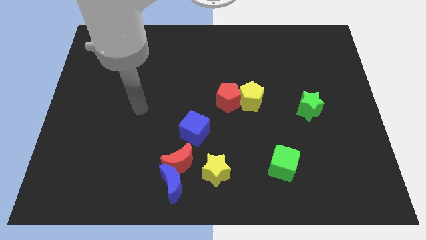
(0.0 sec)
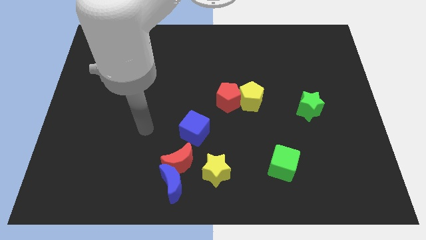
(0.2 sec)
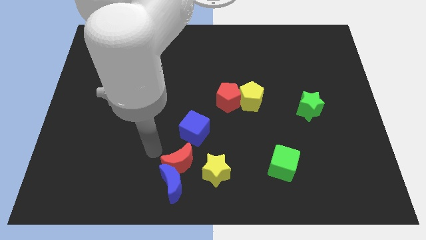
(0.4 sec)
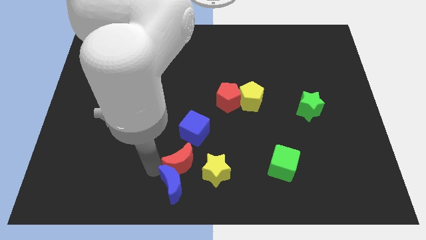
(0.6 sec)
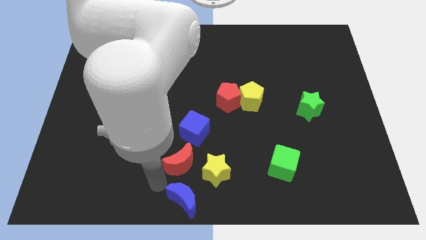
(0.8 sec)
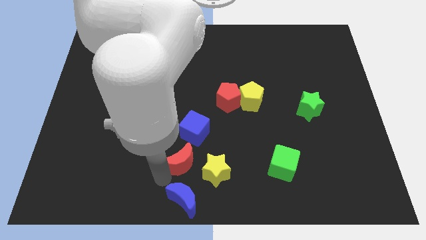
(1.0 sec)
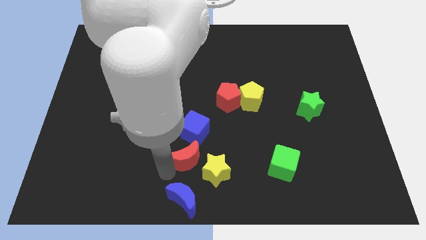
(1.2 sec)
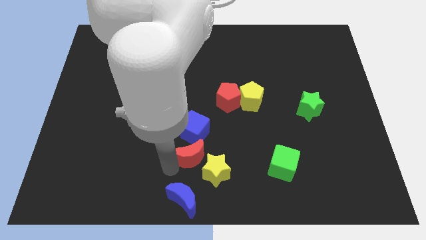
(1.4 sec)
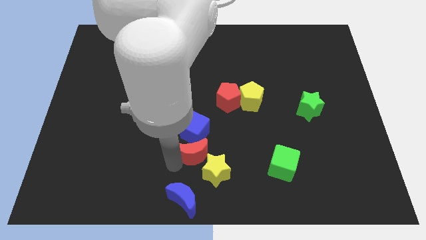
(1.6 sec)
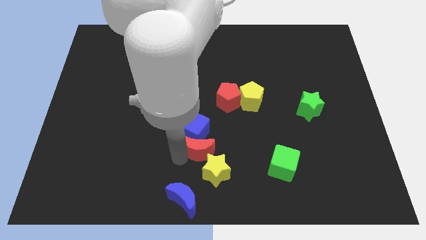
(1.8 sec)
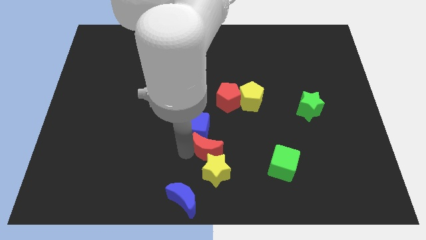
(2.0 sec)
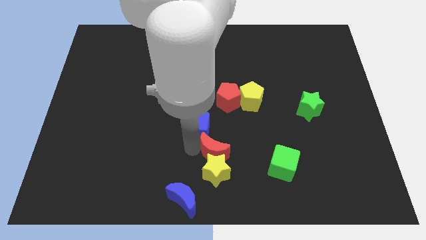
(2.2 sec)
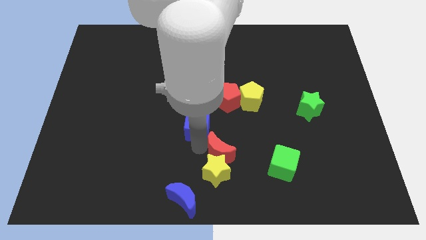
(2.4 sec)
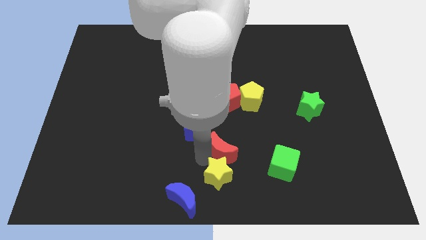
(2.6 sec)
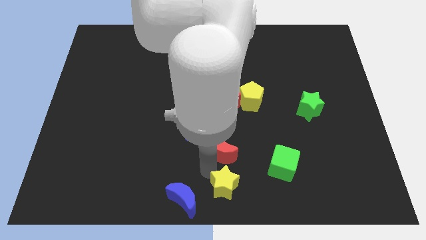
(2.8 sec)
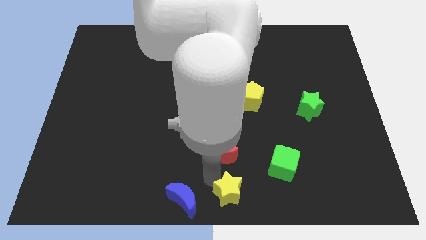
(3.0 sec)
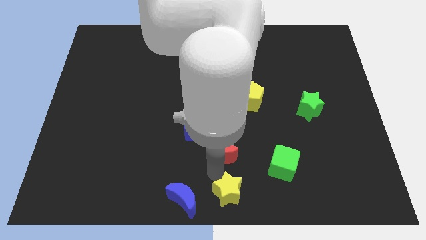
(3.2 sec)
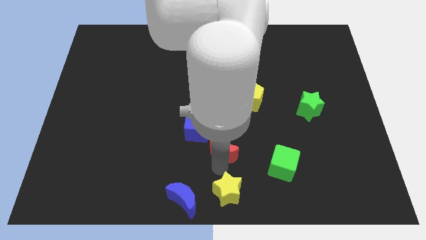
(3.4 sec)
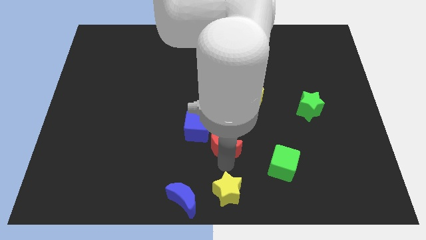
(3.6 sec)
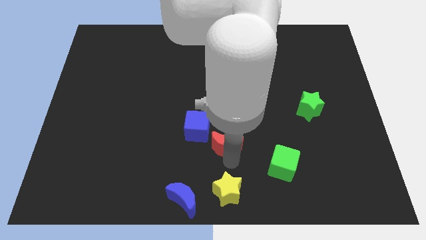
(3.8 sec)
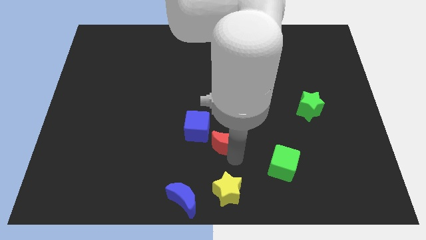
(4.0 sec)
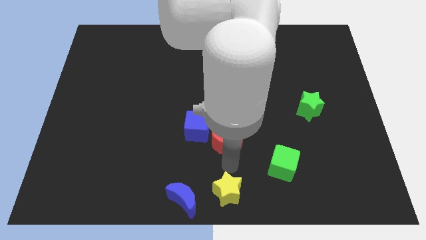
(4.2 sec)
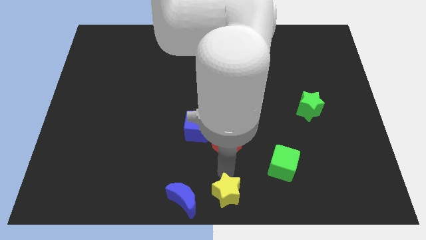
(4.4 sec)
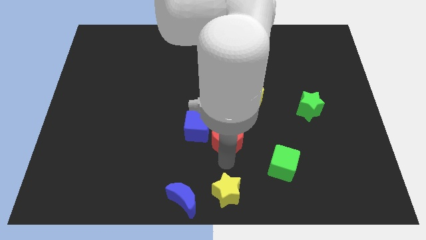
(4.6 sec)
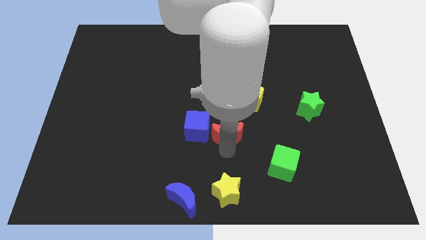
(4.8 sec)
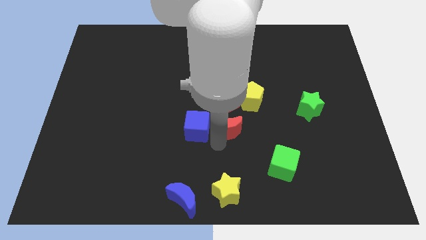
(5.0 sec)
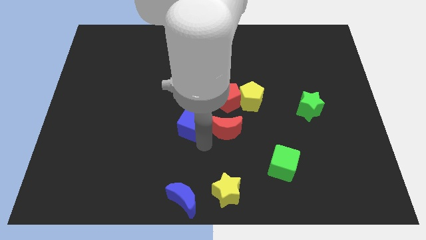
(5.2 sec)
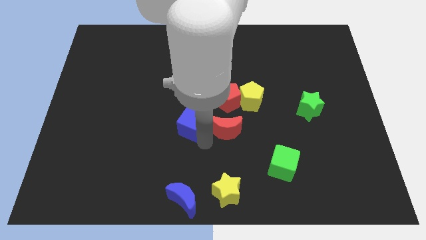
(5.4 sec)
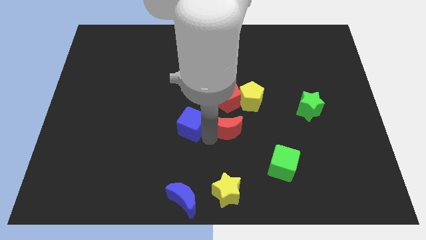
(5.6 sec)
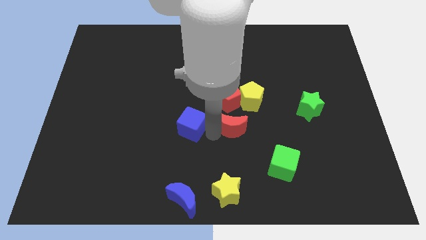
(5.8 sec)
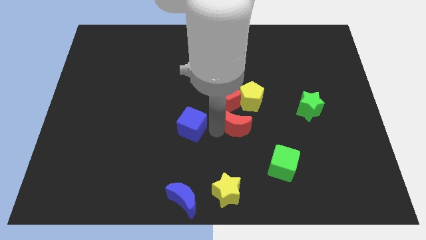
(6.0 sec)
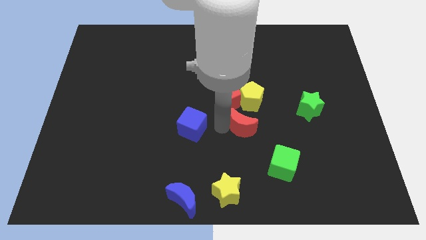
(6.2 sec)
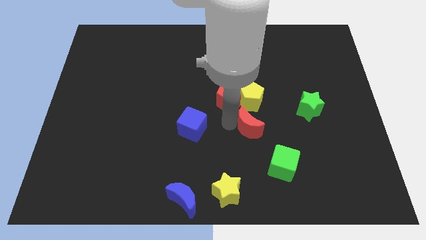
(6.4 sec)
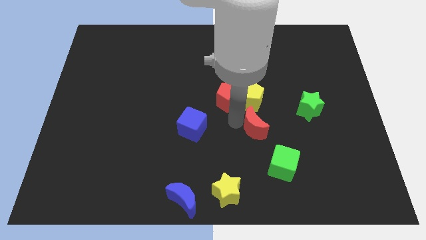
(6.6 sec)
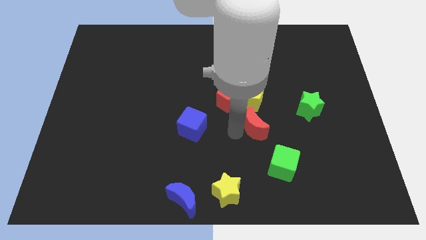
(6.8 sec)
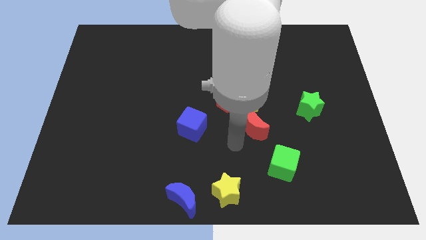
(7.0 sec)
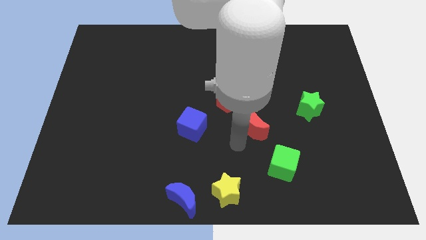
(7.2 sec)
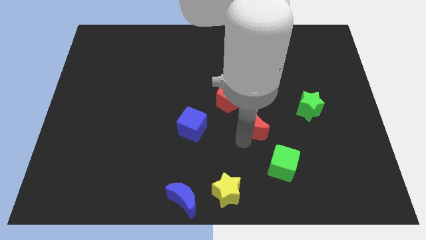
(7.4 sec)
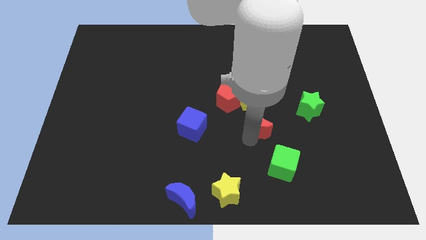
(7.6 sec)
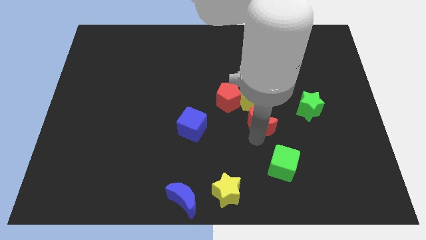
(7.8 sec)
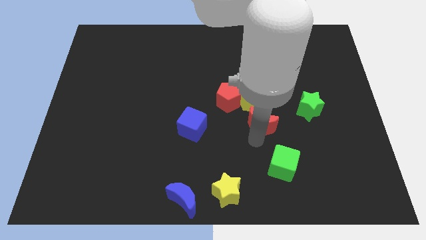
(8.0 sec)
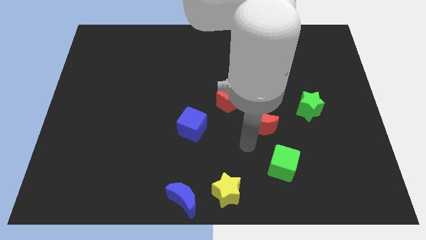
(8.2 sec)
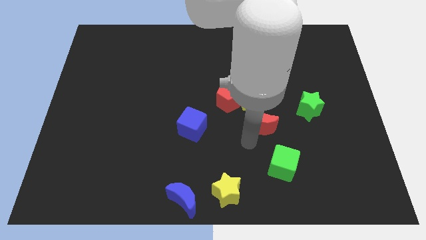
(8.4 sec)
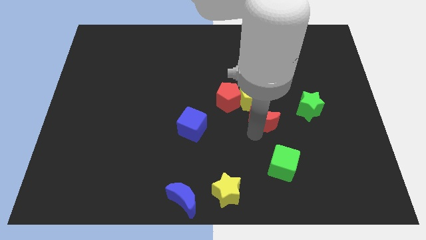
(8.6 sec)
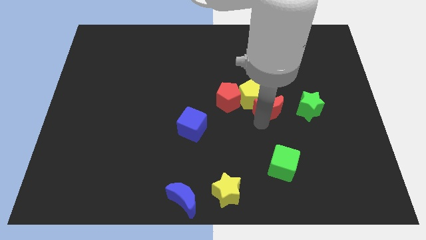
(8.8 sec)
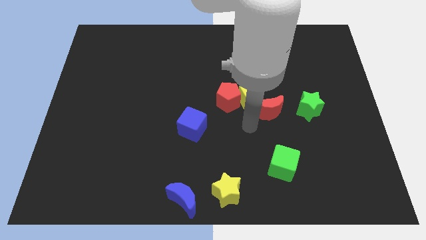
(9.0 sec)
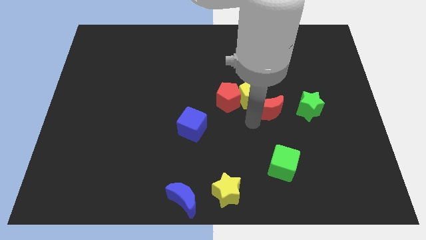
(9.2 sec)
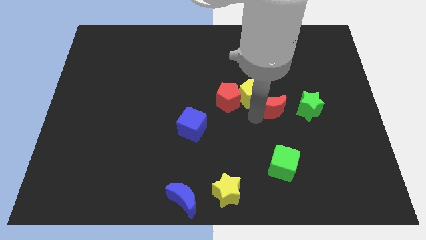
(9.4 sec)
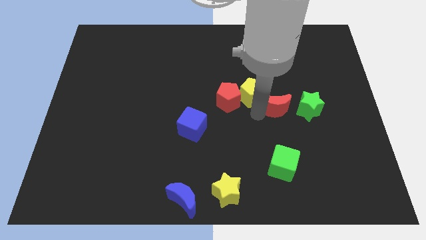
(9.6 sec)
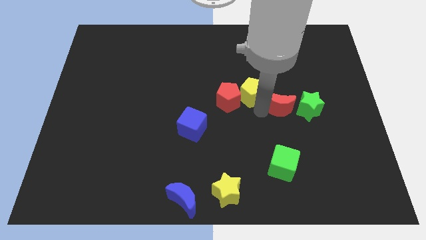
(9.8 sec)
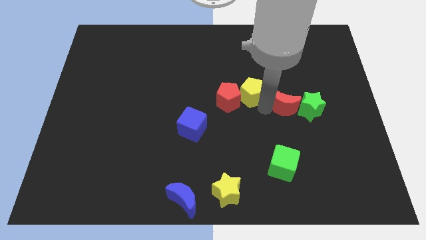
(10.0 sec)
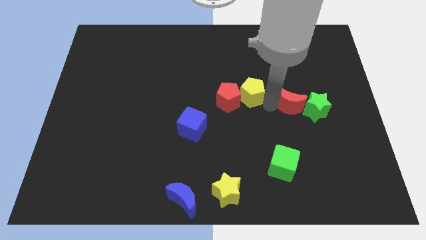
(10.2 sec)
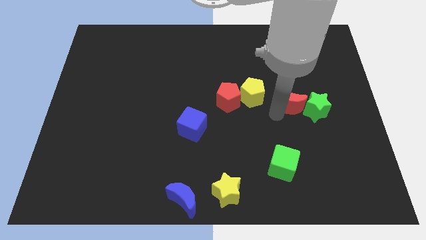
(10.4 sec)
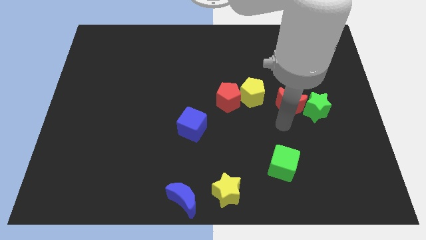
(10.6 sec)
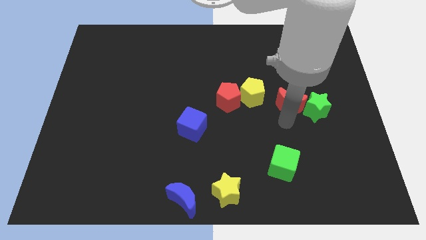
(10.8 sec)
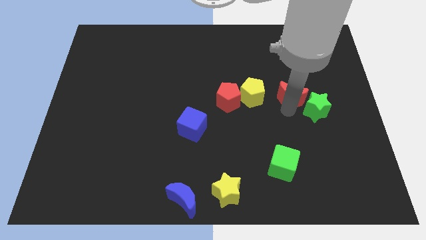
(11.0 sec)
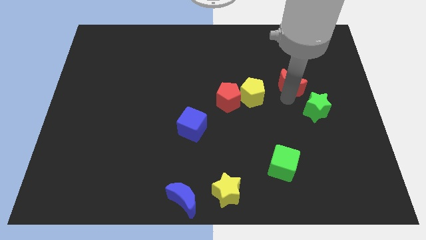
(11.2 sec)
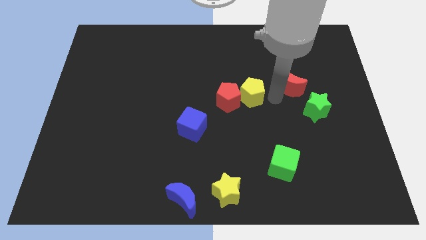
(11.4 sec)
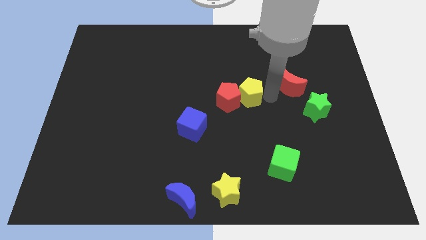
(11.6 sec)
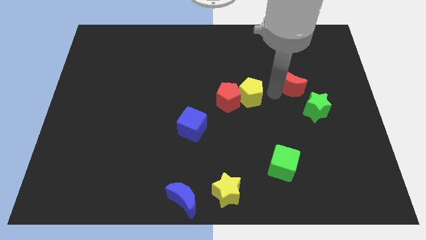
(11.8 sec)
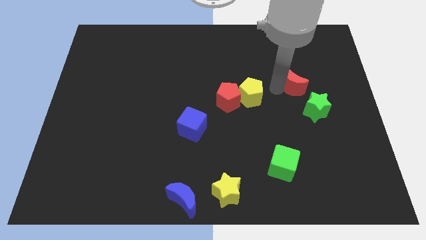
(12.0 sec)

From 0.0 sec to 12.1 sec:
move the red moon to the top side of the green star

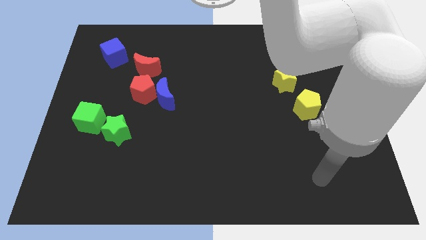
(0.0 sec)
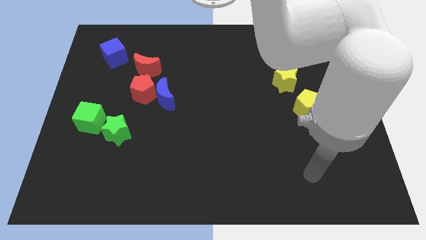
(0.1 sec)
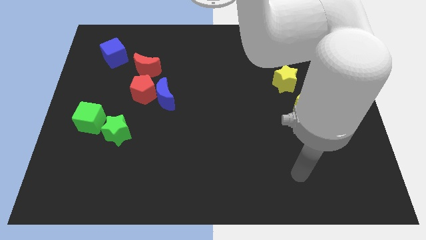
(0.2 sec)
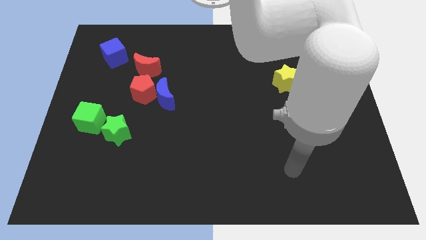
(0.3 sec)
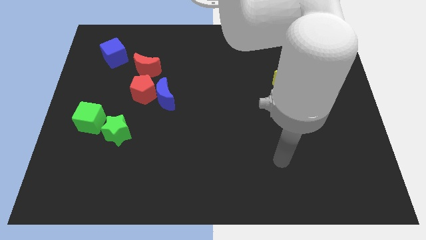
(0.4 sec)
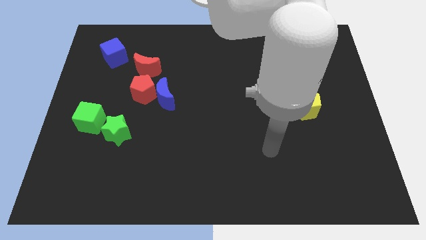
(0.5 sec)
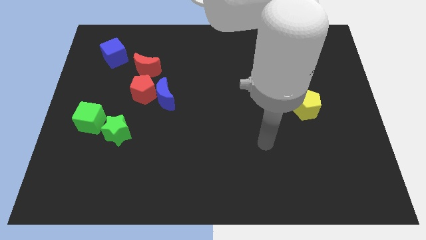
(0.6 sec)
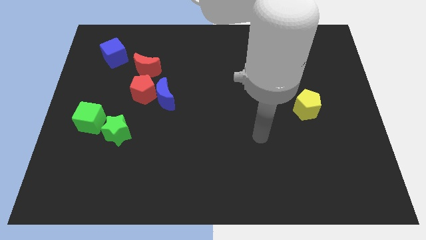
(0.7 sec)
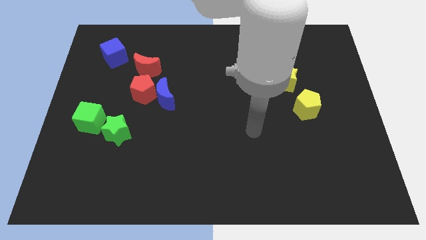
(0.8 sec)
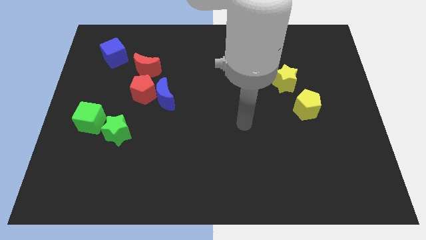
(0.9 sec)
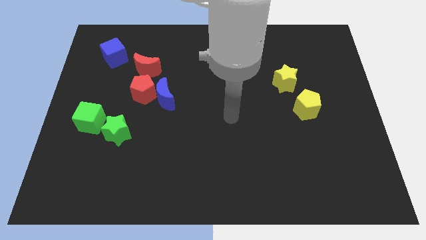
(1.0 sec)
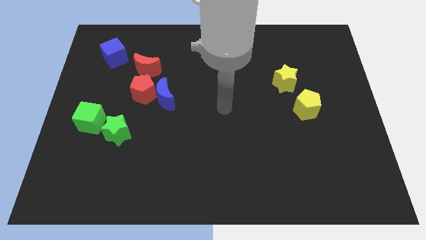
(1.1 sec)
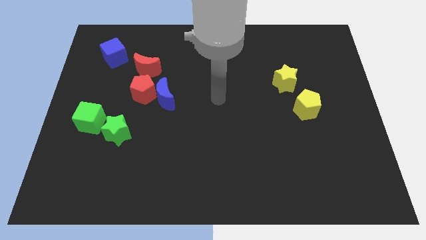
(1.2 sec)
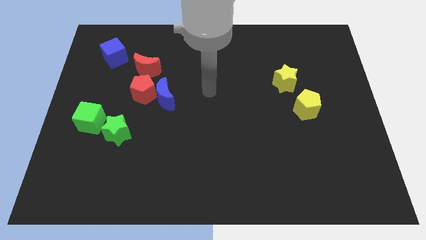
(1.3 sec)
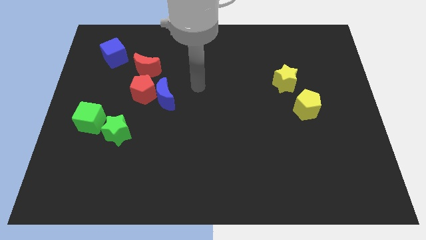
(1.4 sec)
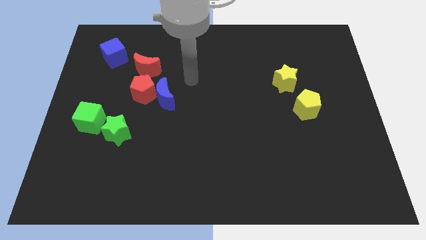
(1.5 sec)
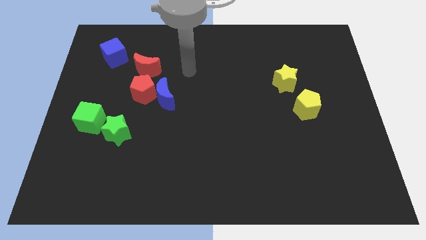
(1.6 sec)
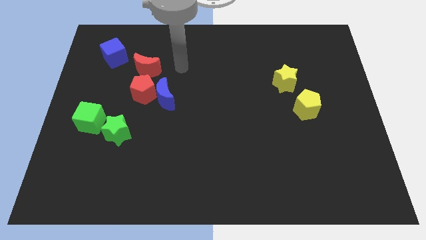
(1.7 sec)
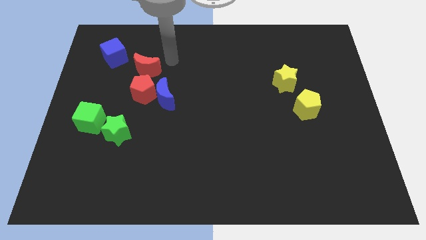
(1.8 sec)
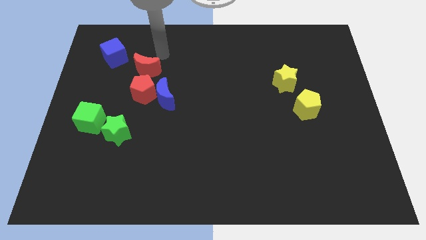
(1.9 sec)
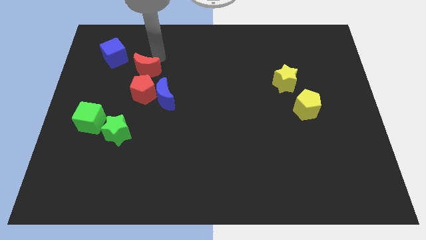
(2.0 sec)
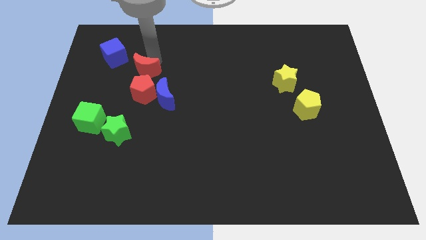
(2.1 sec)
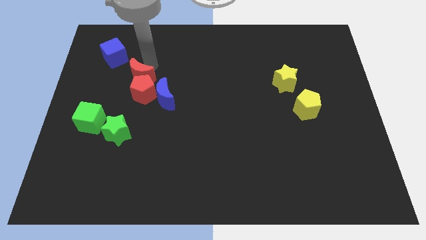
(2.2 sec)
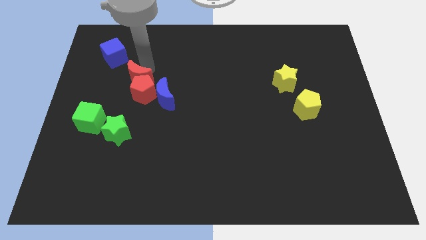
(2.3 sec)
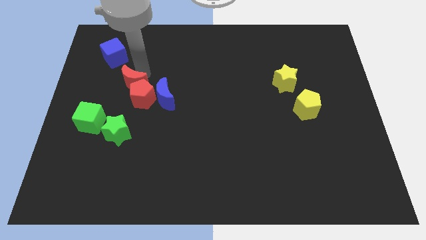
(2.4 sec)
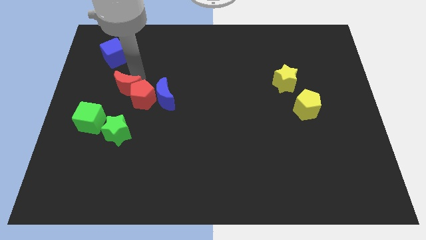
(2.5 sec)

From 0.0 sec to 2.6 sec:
put the red moon to the top right of the green cube
